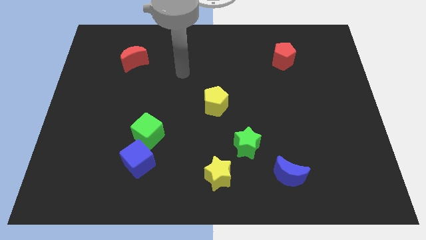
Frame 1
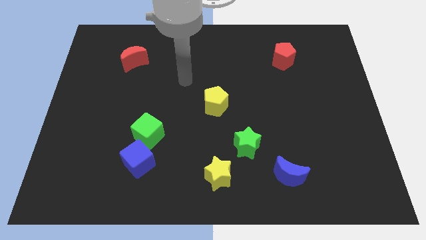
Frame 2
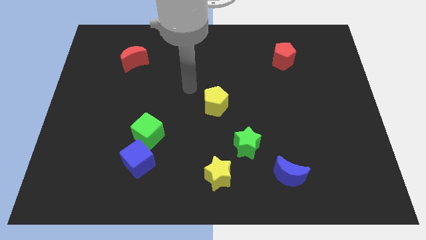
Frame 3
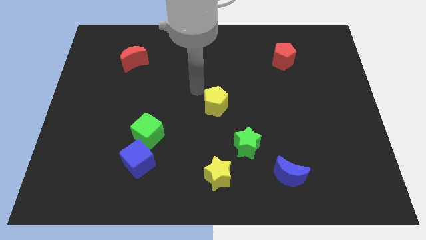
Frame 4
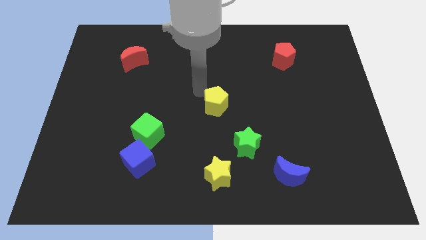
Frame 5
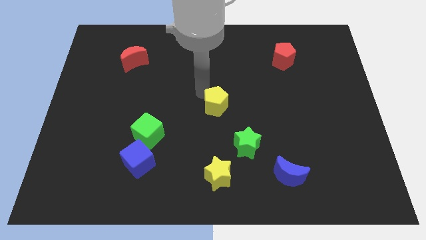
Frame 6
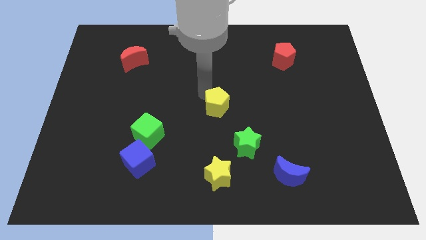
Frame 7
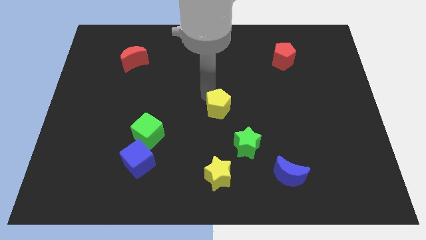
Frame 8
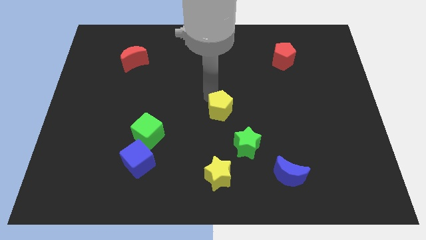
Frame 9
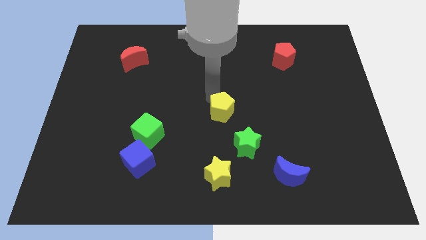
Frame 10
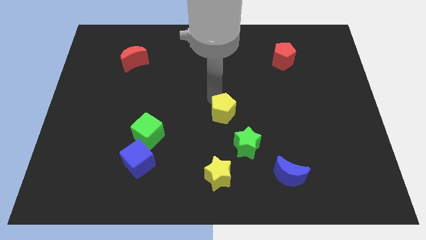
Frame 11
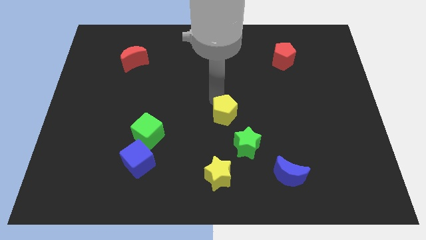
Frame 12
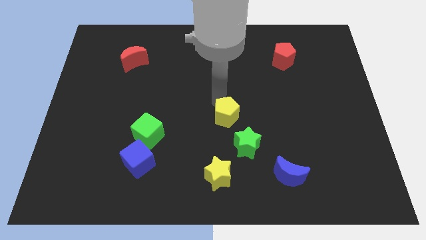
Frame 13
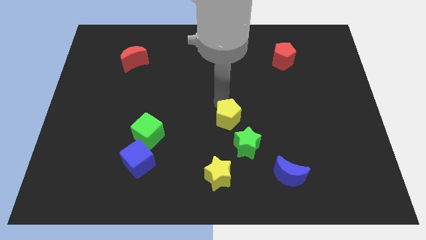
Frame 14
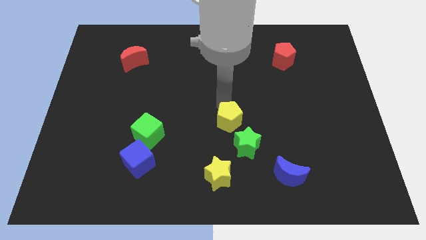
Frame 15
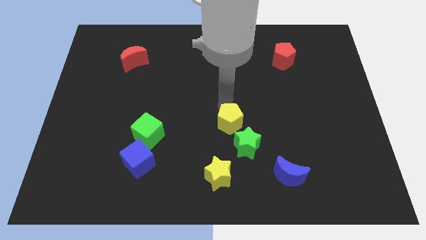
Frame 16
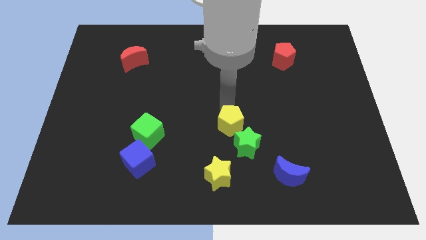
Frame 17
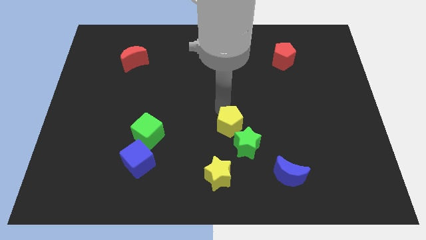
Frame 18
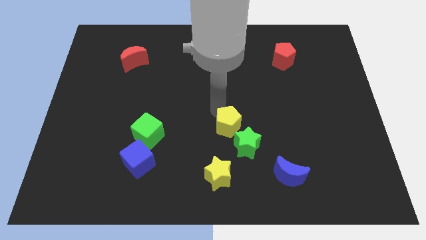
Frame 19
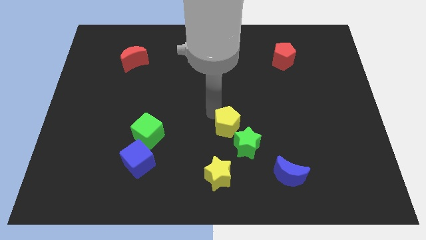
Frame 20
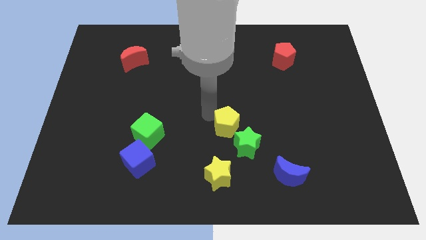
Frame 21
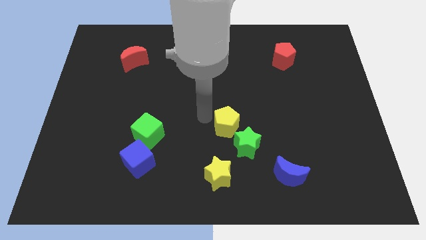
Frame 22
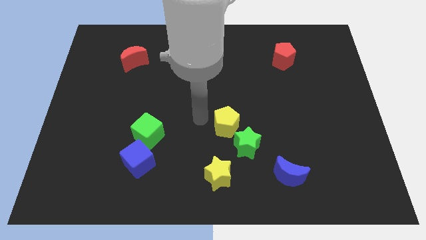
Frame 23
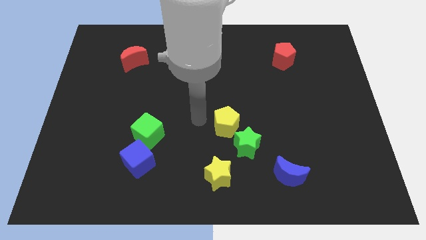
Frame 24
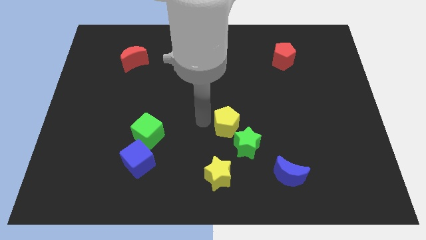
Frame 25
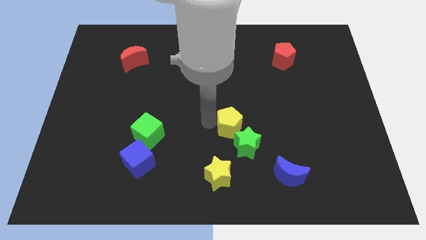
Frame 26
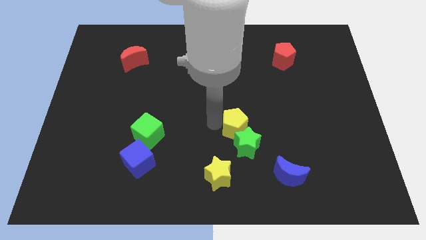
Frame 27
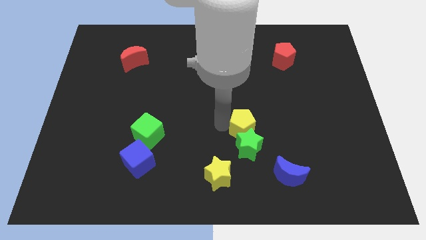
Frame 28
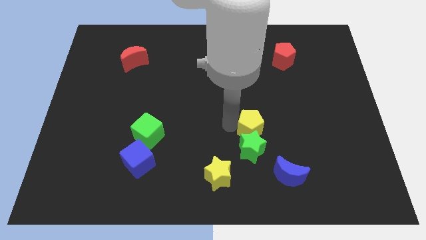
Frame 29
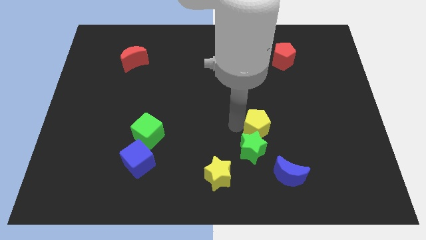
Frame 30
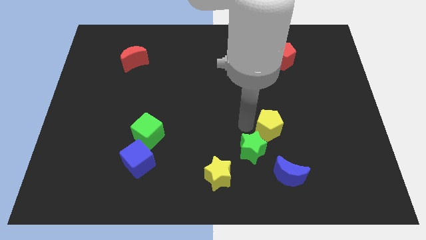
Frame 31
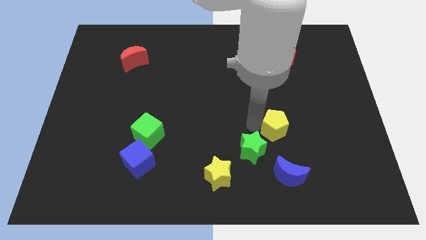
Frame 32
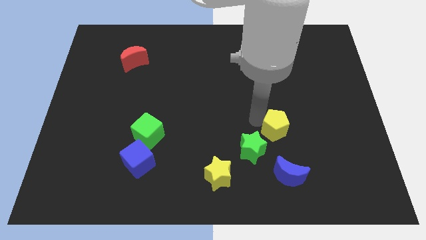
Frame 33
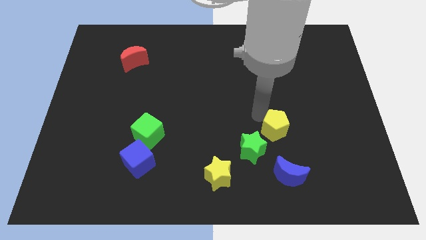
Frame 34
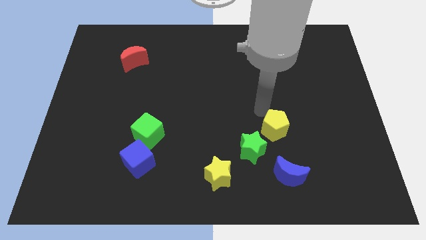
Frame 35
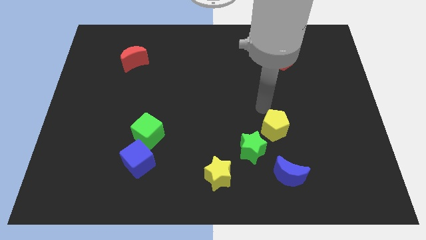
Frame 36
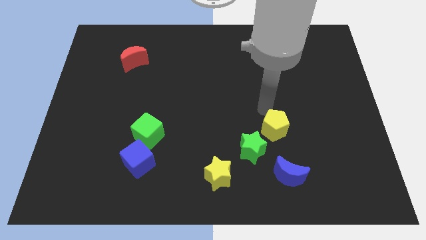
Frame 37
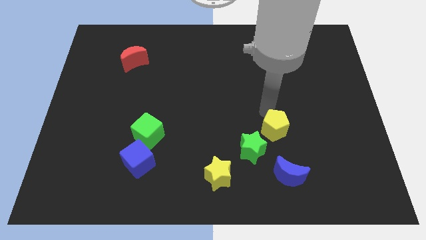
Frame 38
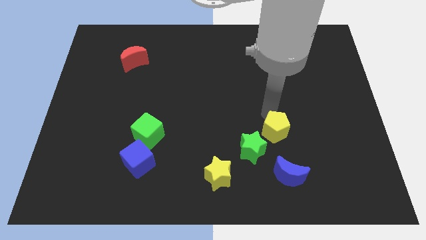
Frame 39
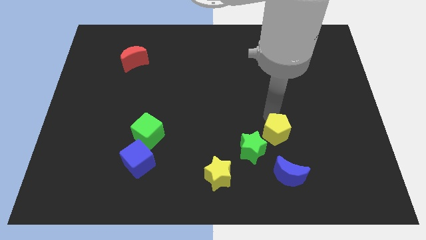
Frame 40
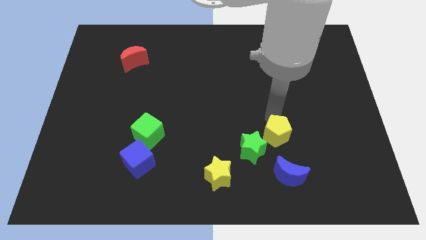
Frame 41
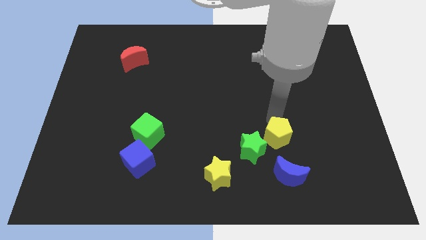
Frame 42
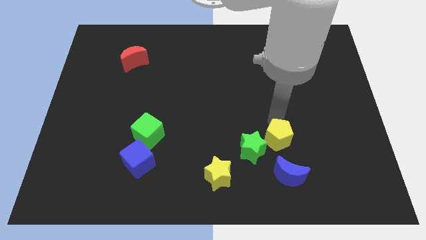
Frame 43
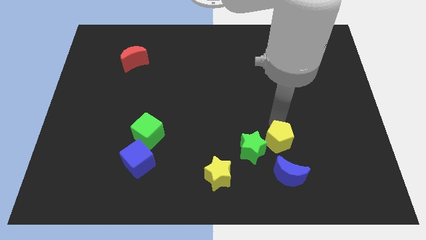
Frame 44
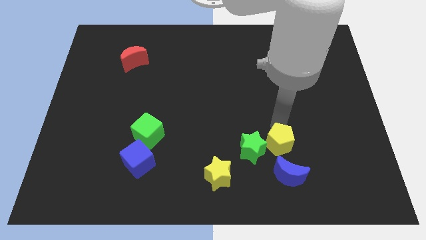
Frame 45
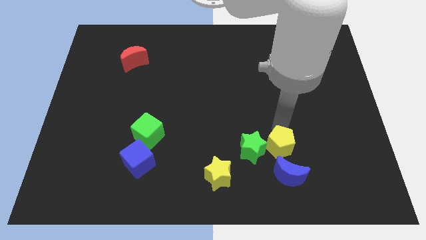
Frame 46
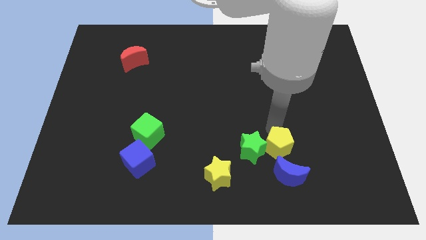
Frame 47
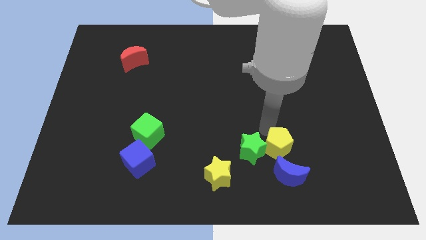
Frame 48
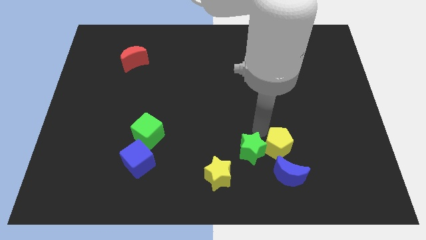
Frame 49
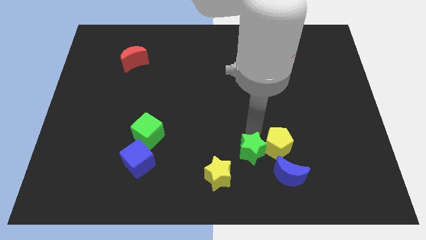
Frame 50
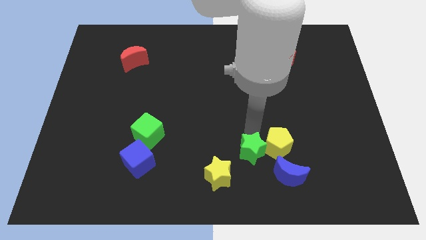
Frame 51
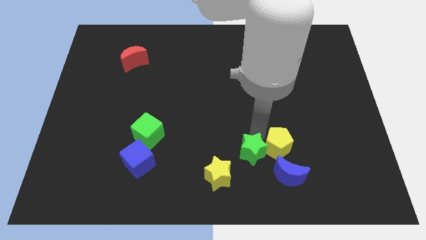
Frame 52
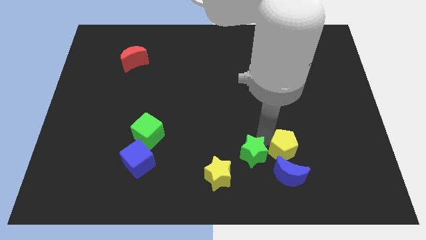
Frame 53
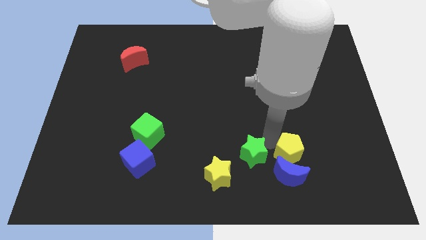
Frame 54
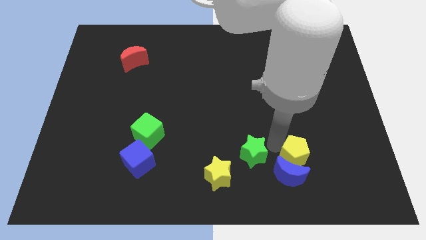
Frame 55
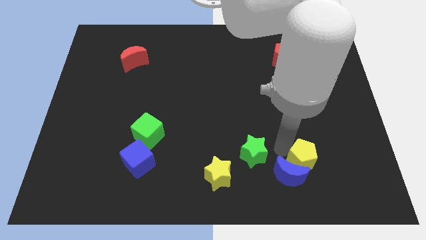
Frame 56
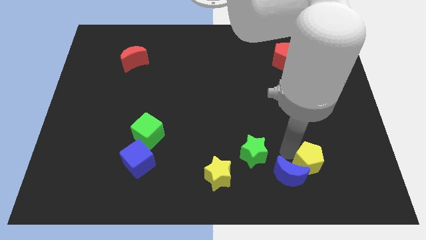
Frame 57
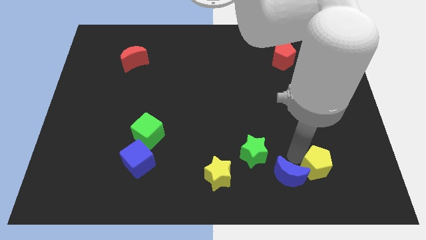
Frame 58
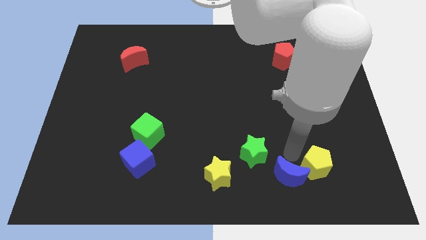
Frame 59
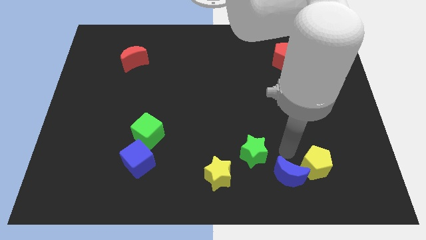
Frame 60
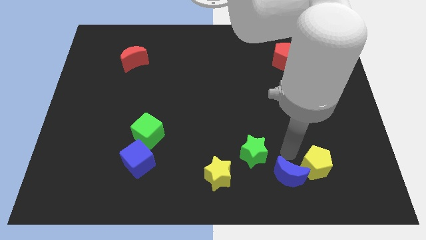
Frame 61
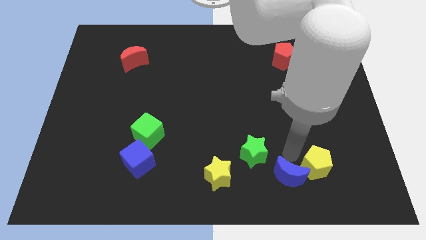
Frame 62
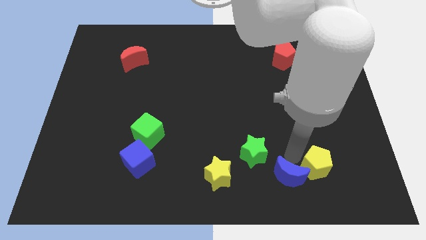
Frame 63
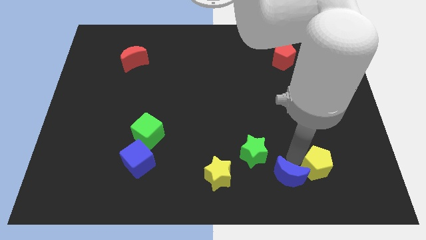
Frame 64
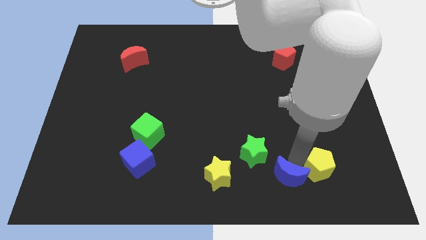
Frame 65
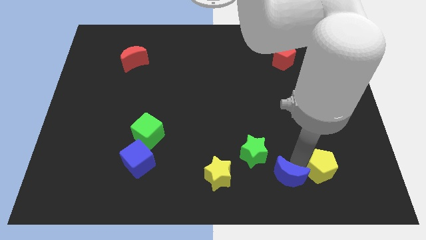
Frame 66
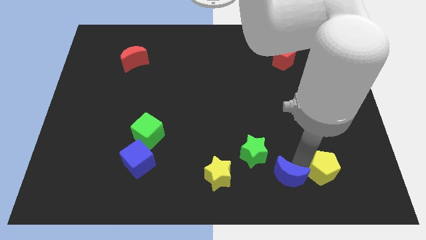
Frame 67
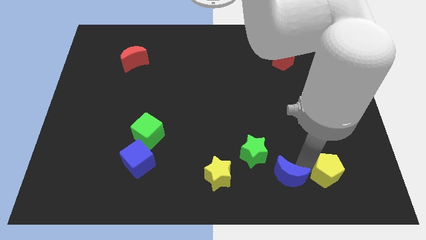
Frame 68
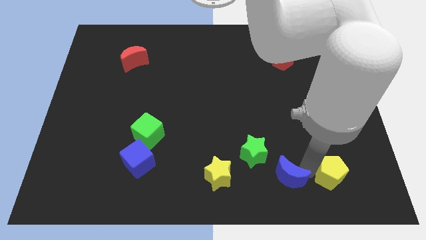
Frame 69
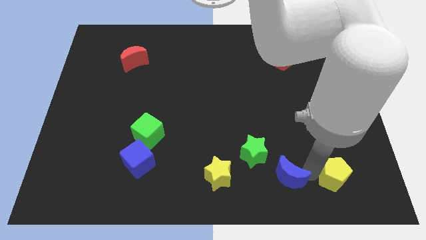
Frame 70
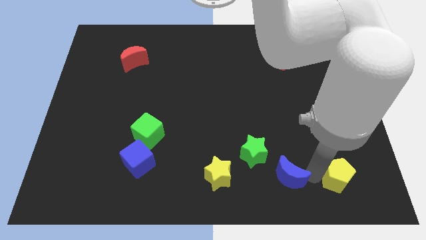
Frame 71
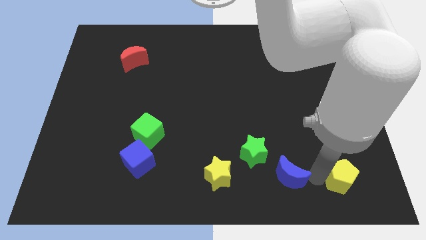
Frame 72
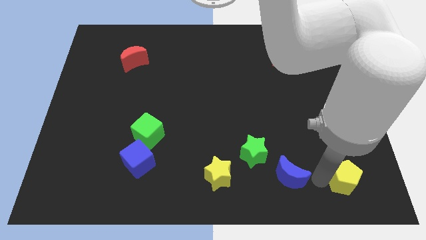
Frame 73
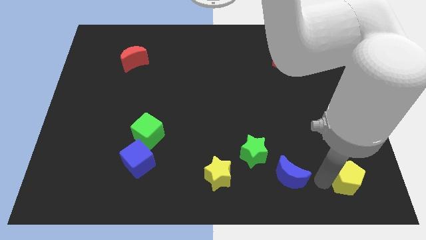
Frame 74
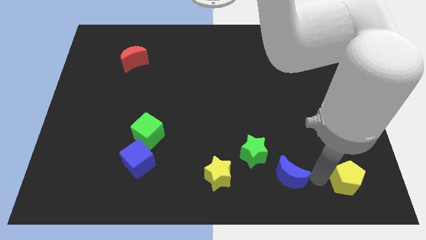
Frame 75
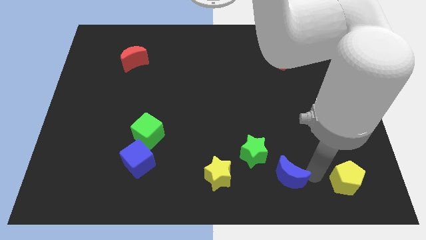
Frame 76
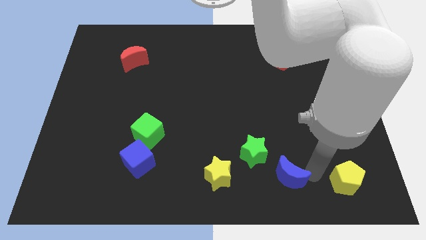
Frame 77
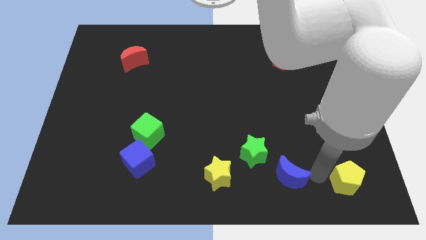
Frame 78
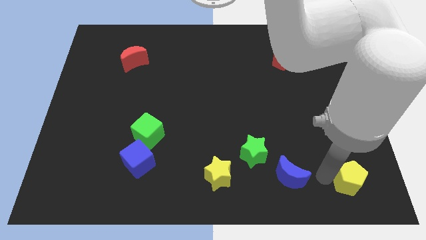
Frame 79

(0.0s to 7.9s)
slide the yellow pentagon to the bottom right
